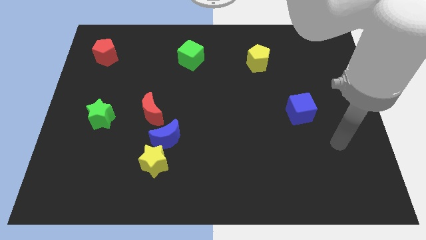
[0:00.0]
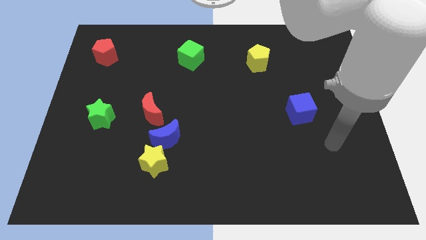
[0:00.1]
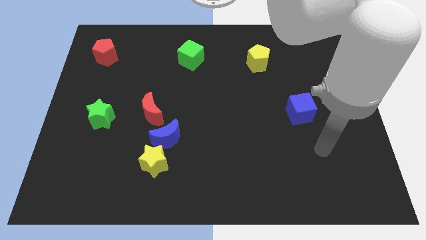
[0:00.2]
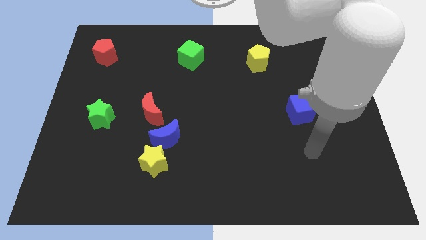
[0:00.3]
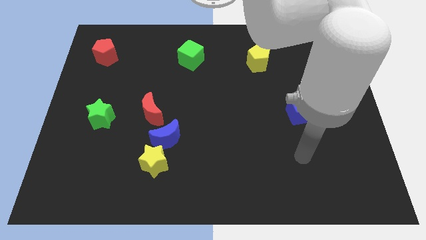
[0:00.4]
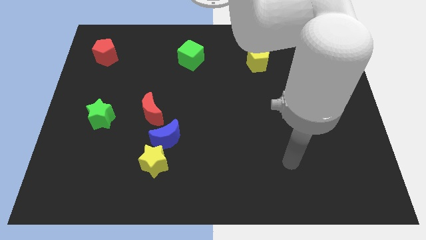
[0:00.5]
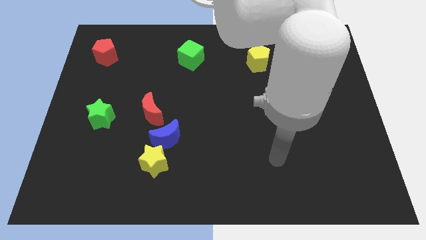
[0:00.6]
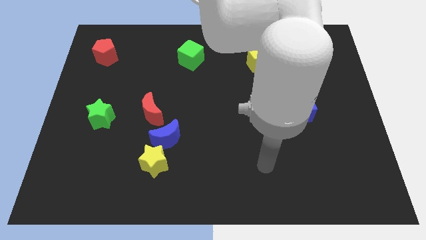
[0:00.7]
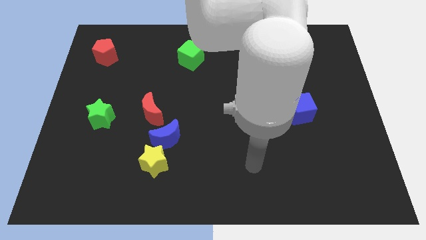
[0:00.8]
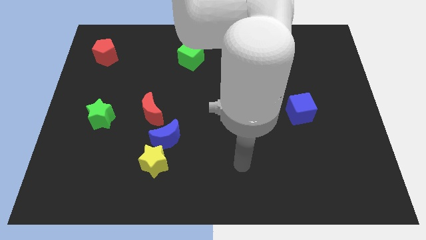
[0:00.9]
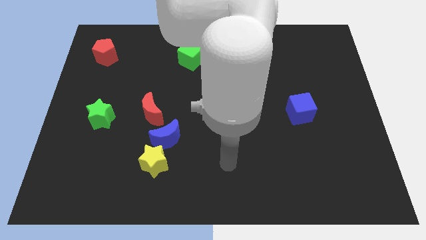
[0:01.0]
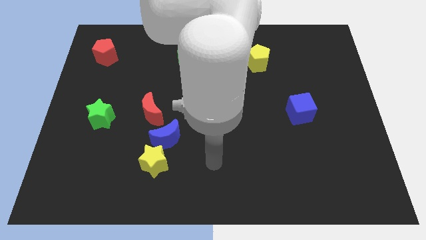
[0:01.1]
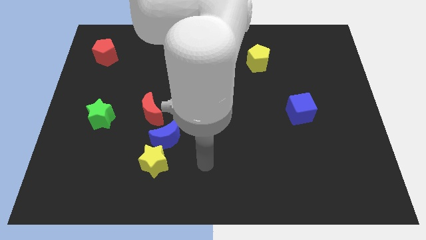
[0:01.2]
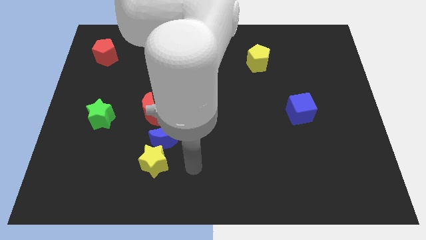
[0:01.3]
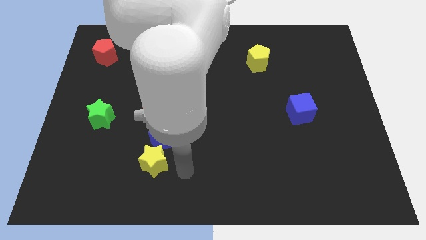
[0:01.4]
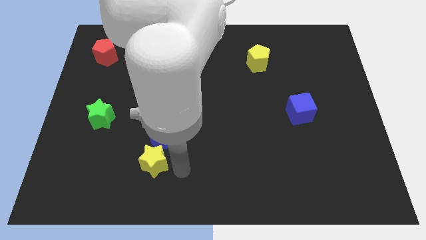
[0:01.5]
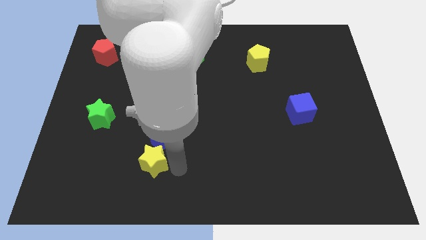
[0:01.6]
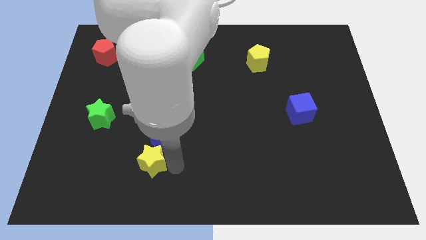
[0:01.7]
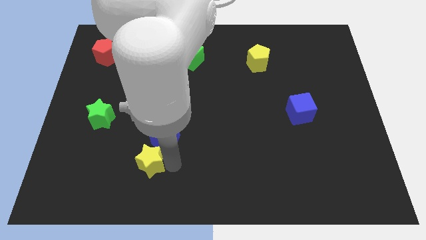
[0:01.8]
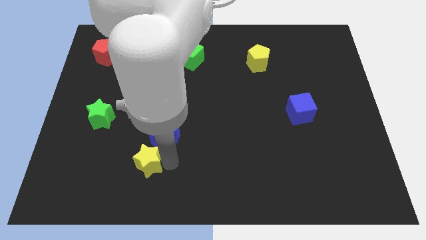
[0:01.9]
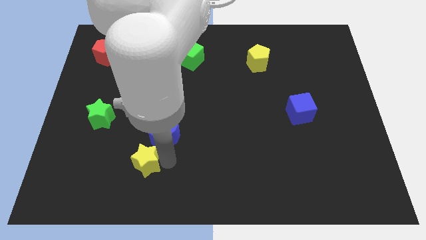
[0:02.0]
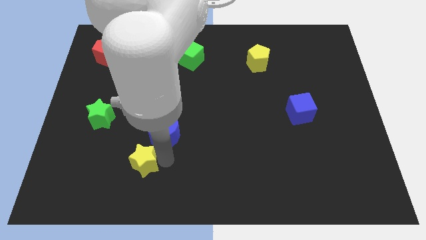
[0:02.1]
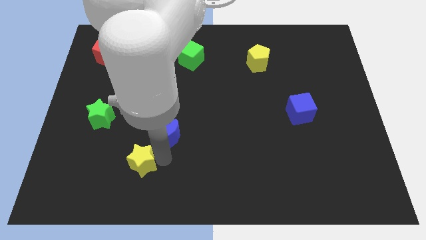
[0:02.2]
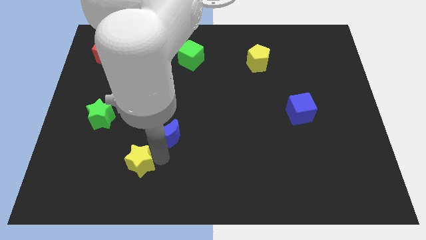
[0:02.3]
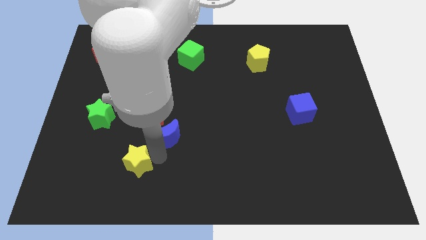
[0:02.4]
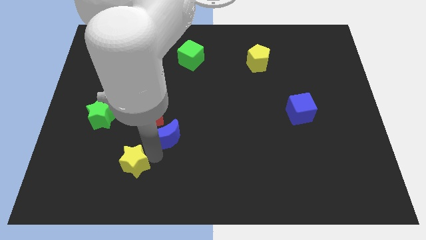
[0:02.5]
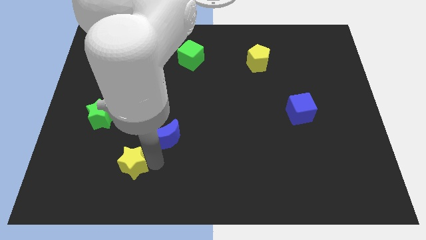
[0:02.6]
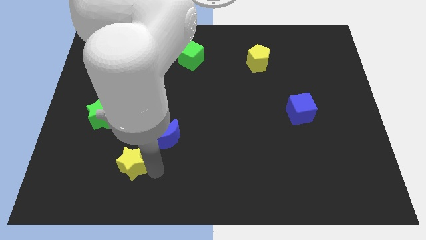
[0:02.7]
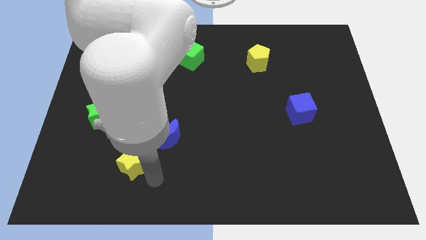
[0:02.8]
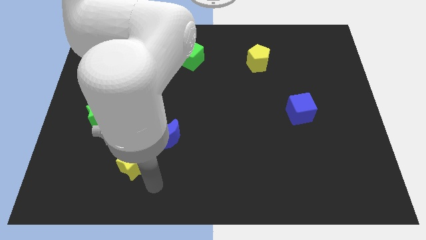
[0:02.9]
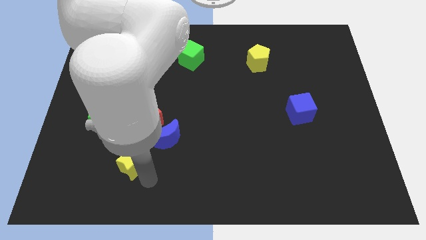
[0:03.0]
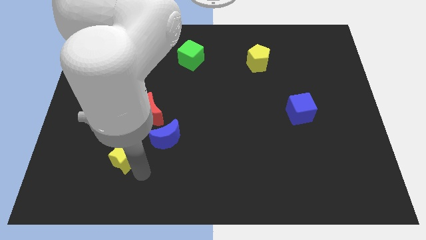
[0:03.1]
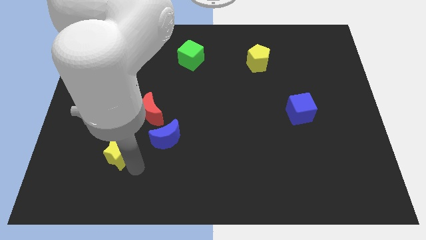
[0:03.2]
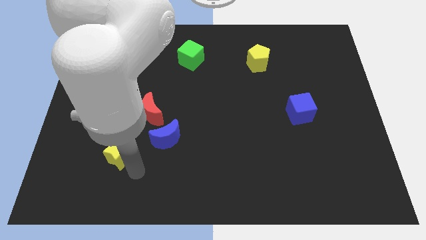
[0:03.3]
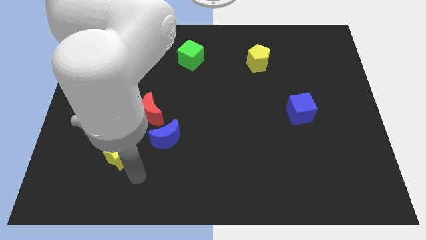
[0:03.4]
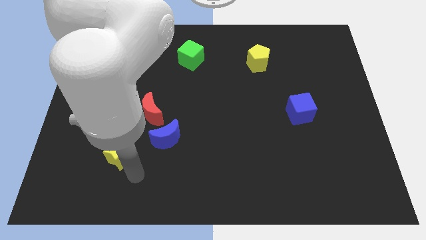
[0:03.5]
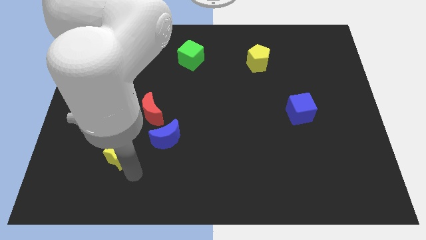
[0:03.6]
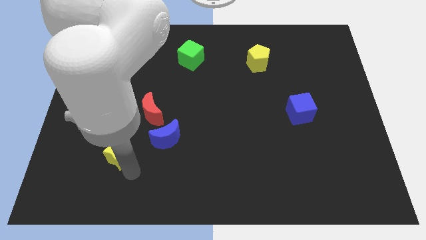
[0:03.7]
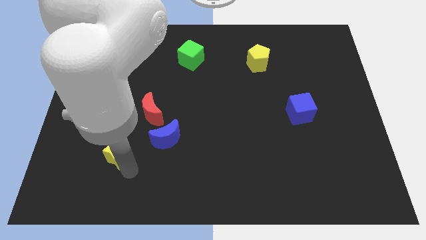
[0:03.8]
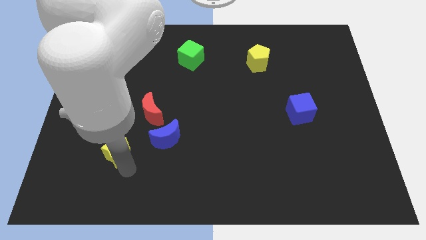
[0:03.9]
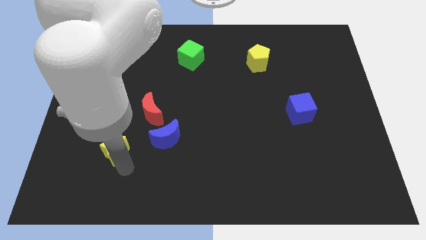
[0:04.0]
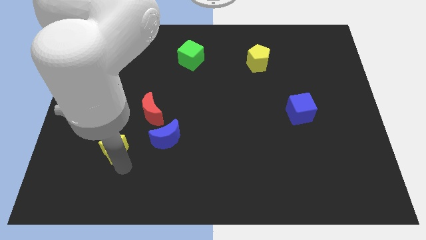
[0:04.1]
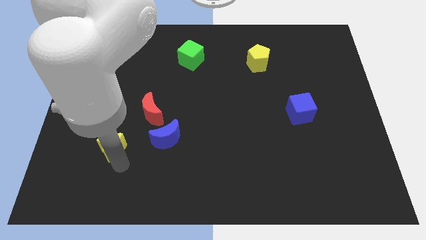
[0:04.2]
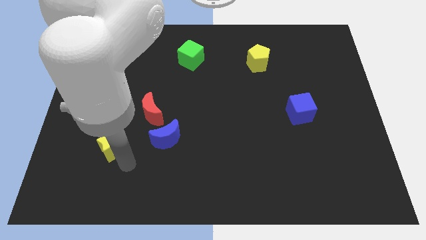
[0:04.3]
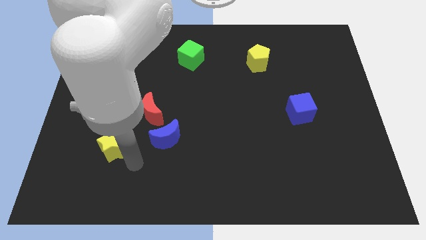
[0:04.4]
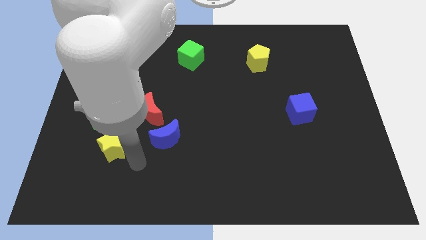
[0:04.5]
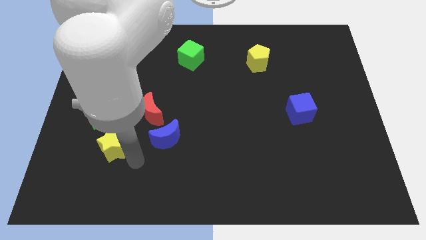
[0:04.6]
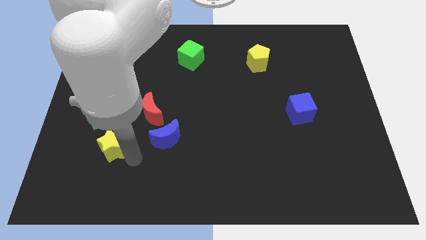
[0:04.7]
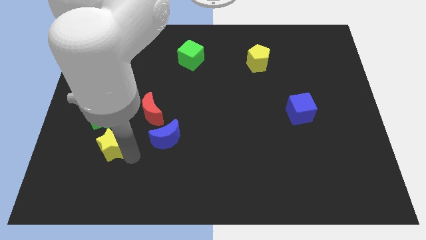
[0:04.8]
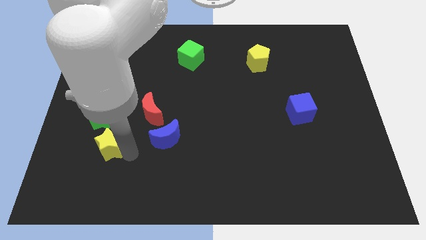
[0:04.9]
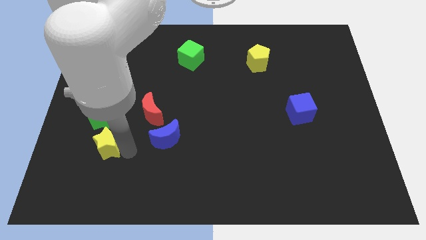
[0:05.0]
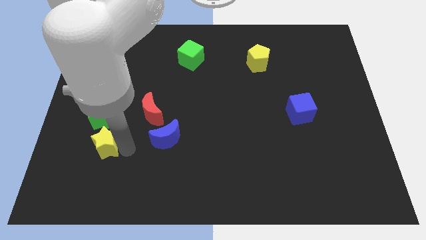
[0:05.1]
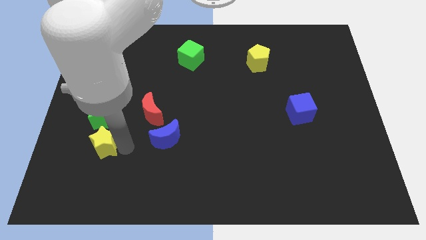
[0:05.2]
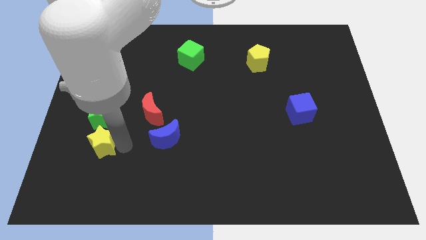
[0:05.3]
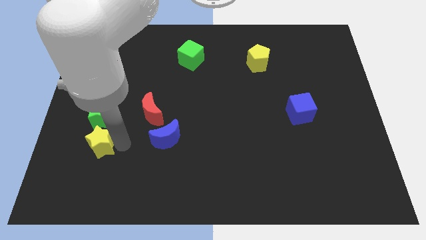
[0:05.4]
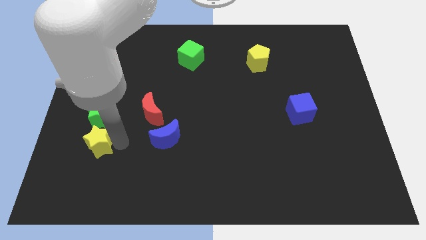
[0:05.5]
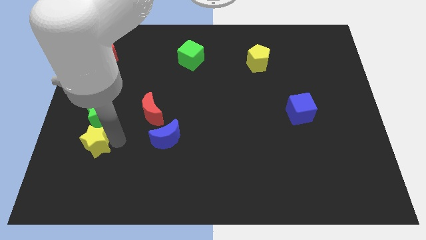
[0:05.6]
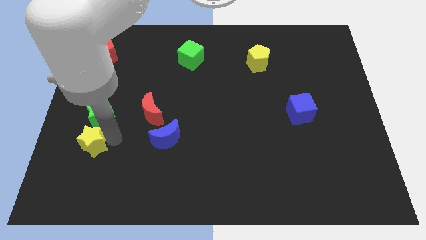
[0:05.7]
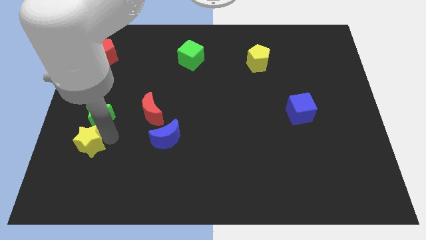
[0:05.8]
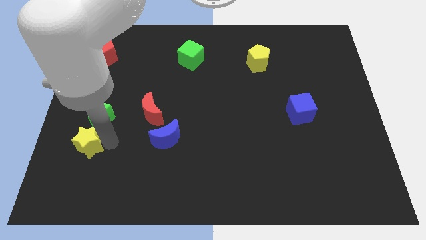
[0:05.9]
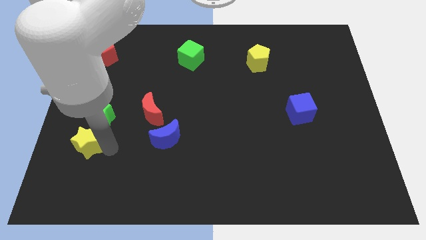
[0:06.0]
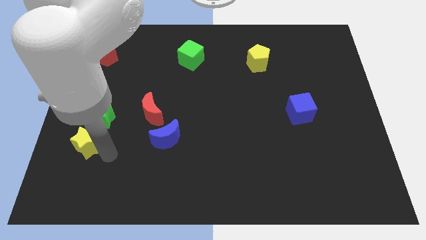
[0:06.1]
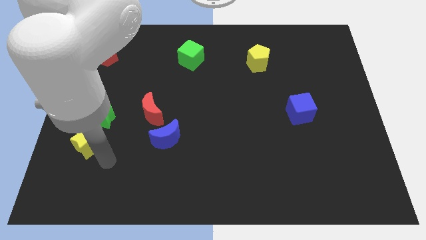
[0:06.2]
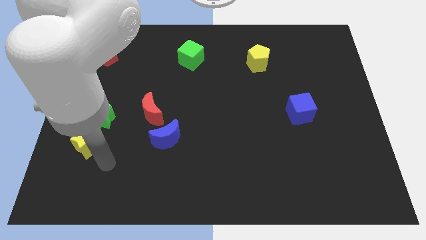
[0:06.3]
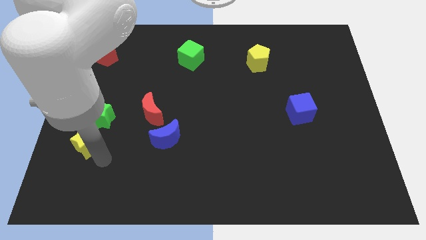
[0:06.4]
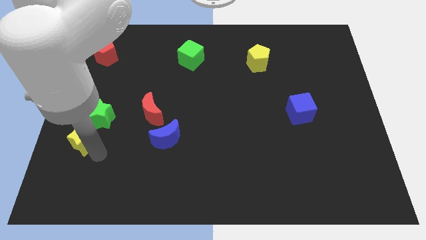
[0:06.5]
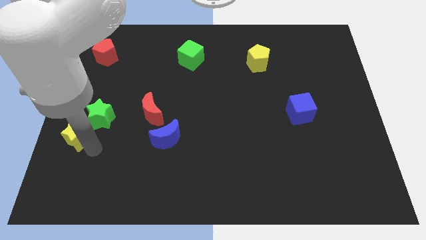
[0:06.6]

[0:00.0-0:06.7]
put the yellow star to the left side of the board

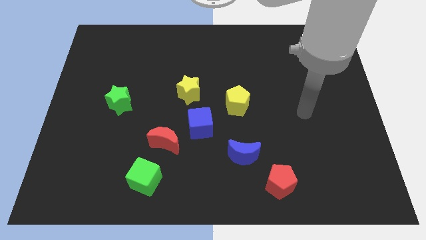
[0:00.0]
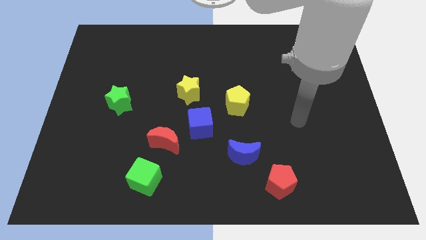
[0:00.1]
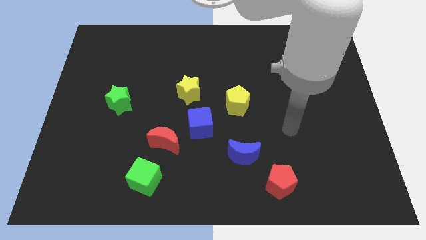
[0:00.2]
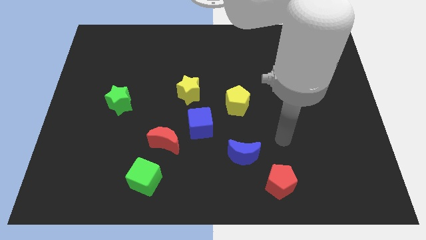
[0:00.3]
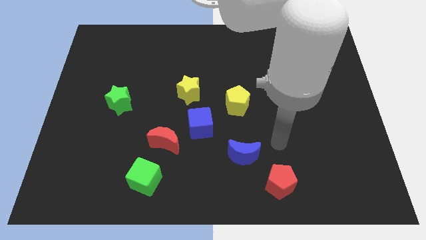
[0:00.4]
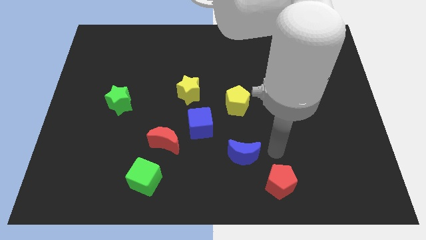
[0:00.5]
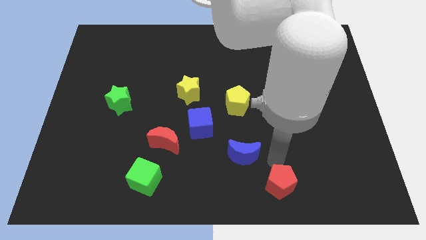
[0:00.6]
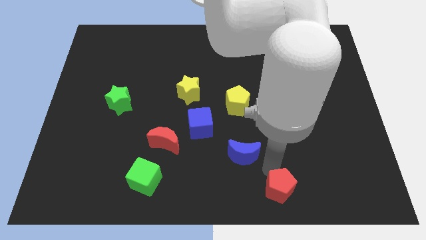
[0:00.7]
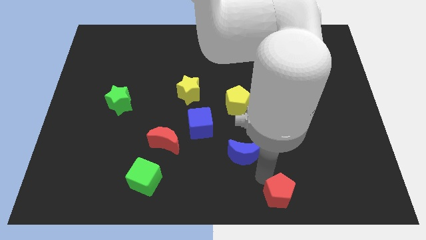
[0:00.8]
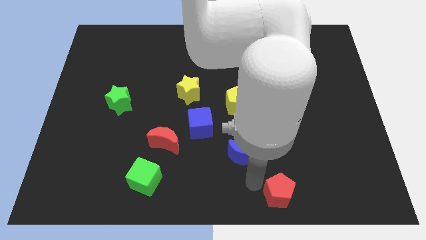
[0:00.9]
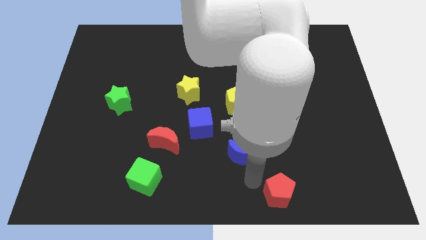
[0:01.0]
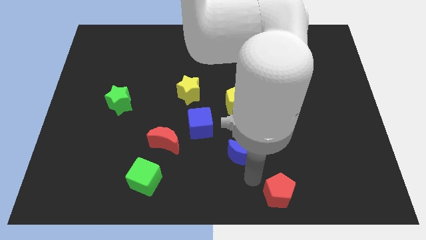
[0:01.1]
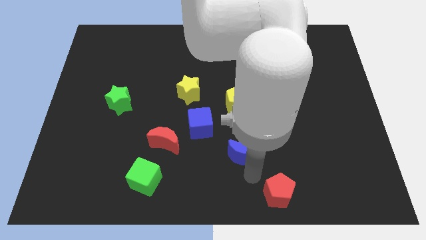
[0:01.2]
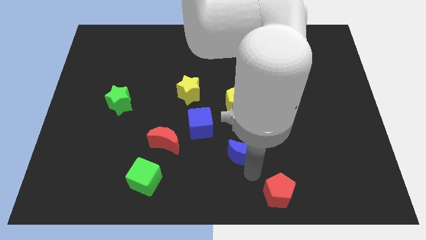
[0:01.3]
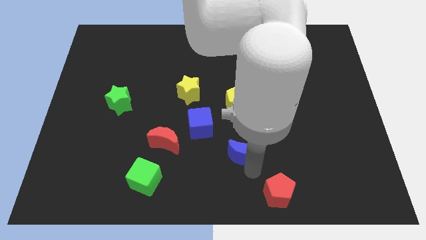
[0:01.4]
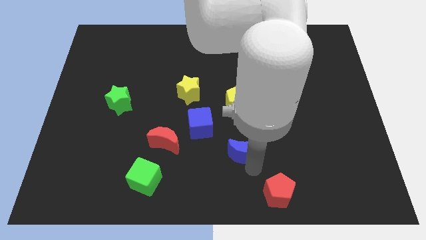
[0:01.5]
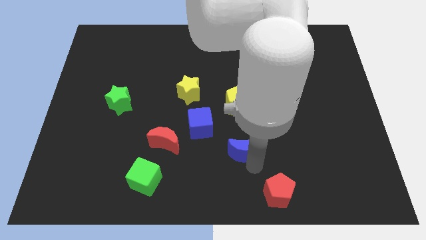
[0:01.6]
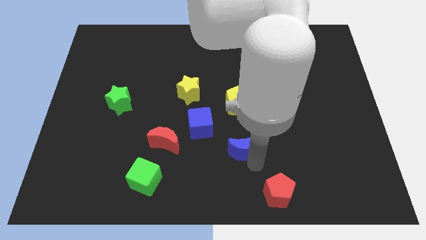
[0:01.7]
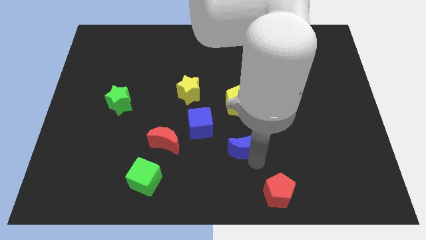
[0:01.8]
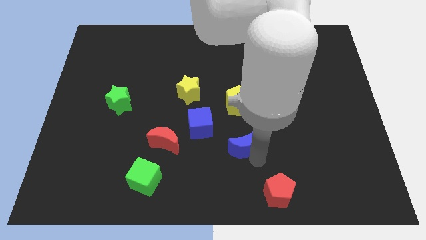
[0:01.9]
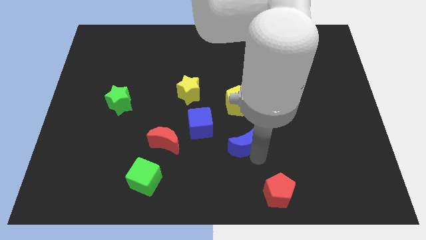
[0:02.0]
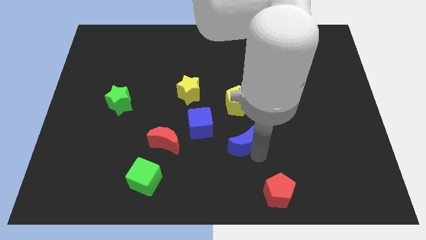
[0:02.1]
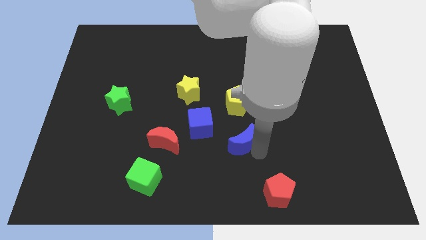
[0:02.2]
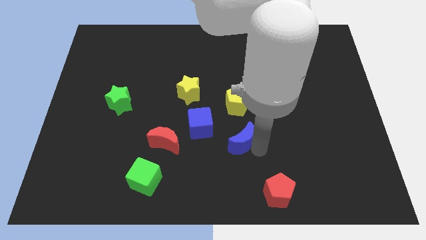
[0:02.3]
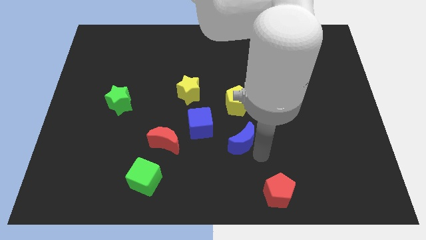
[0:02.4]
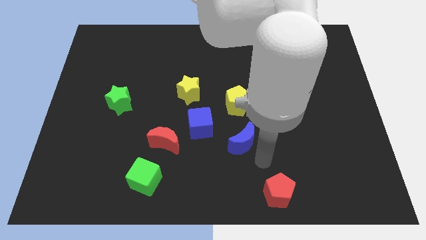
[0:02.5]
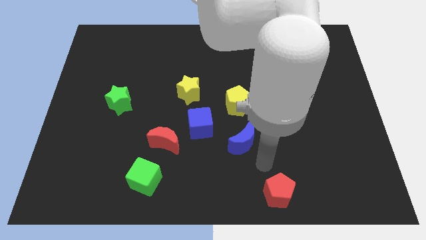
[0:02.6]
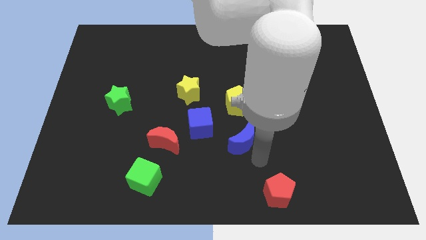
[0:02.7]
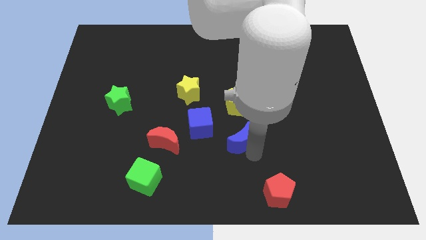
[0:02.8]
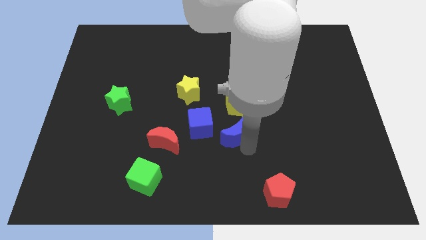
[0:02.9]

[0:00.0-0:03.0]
slide the blue moon to the center
